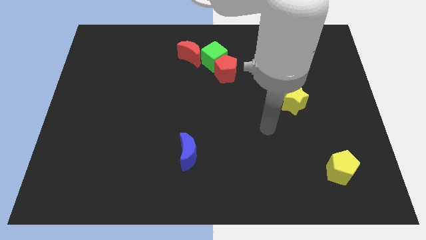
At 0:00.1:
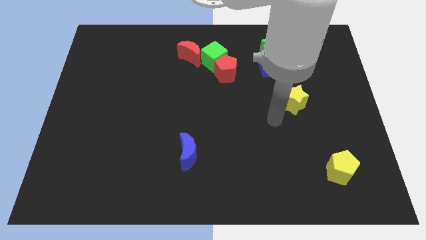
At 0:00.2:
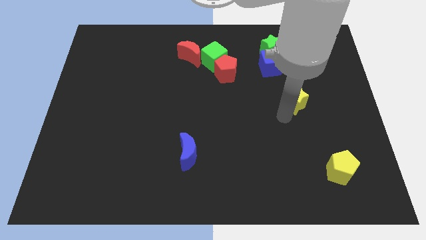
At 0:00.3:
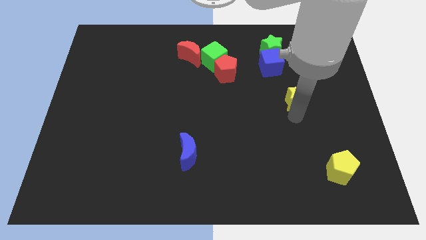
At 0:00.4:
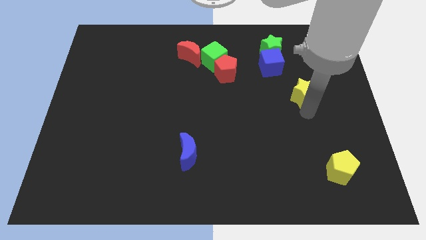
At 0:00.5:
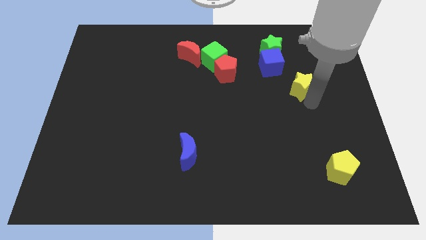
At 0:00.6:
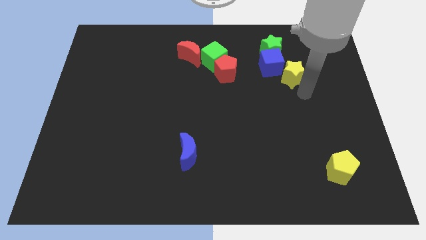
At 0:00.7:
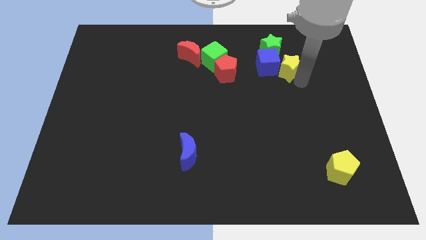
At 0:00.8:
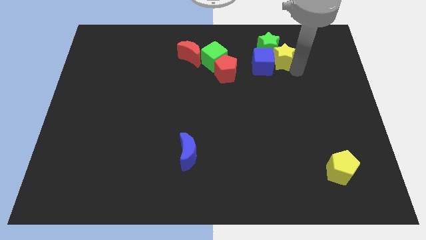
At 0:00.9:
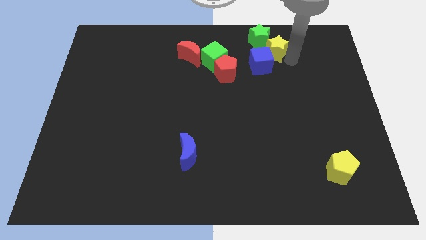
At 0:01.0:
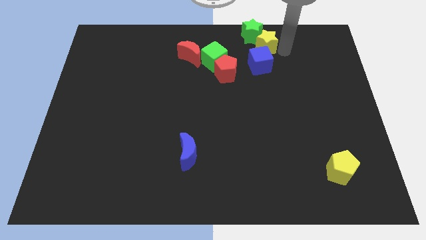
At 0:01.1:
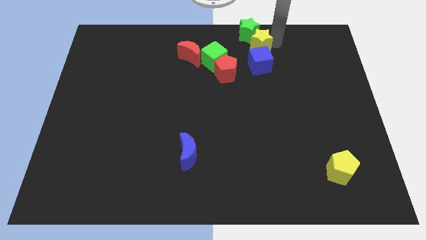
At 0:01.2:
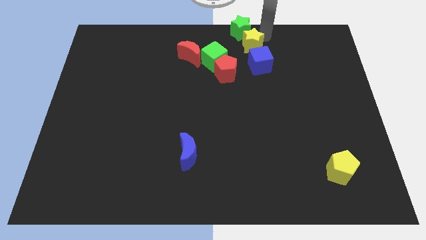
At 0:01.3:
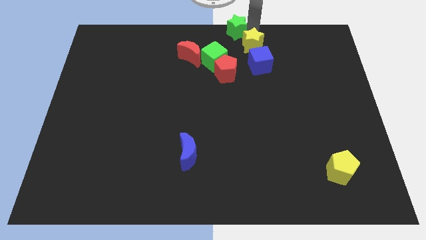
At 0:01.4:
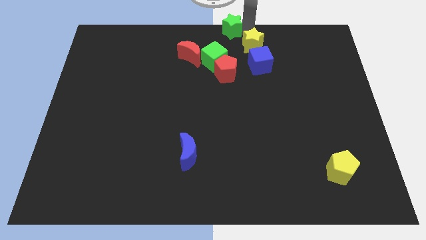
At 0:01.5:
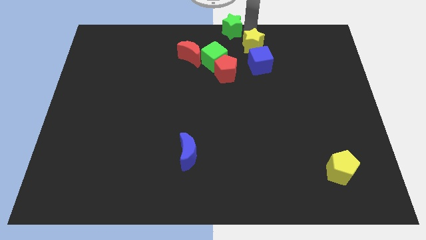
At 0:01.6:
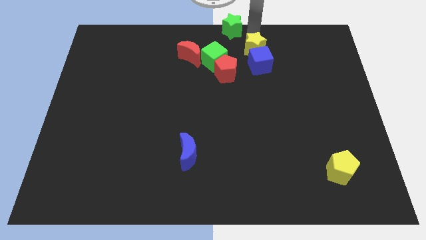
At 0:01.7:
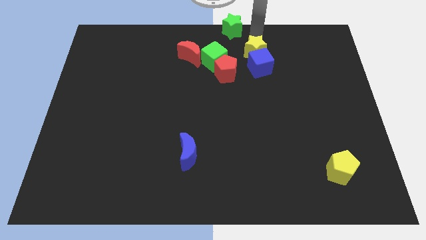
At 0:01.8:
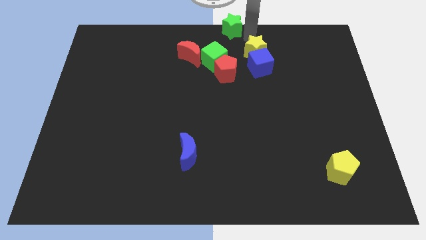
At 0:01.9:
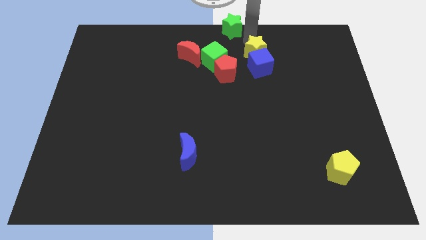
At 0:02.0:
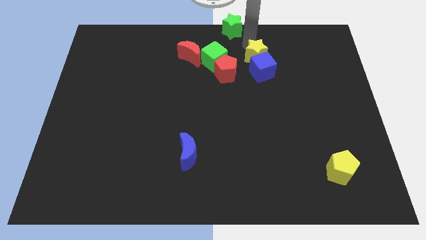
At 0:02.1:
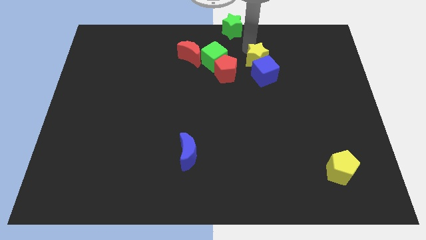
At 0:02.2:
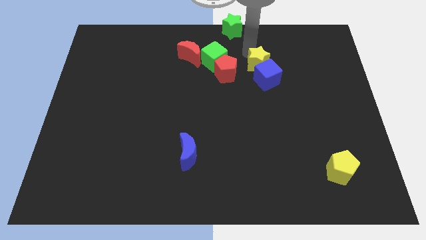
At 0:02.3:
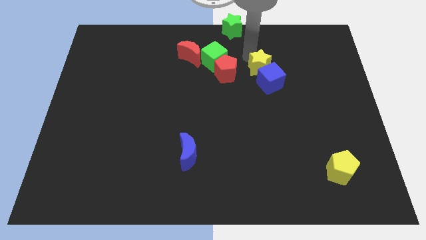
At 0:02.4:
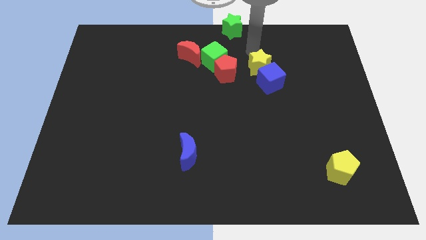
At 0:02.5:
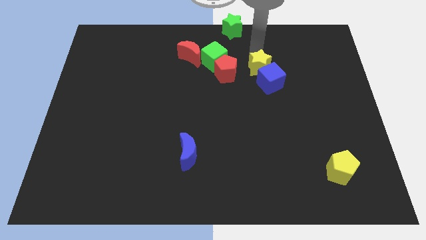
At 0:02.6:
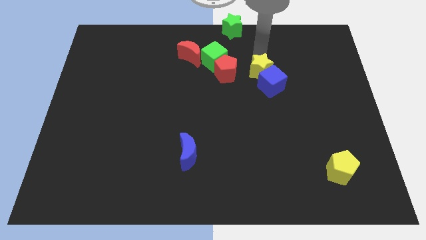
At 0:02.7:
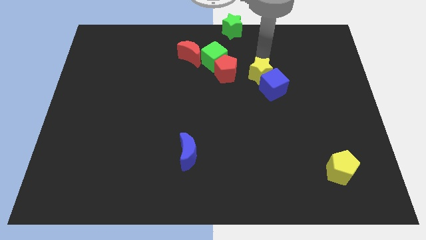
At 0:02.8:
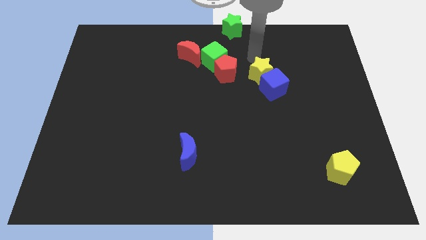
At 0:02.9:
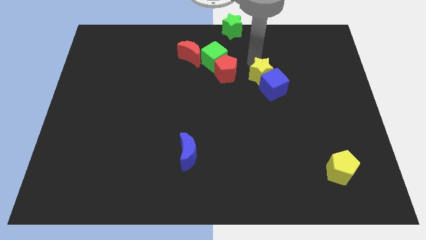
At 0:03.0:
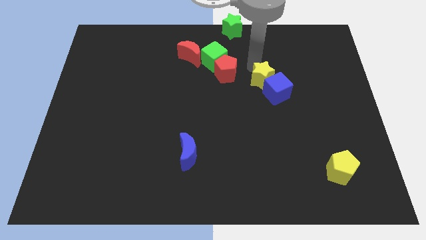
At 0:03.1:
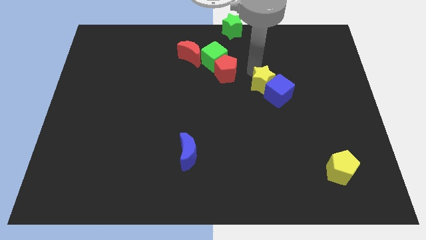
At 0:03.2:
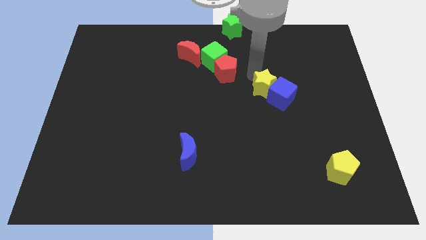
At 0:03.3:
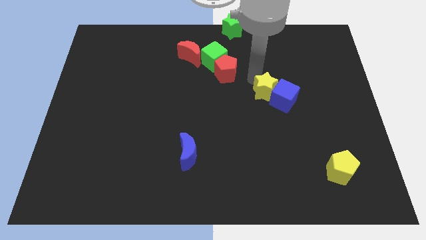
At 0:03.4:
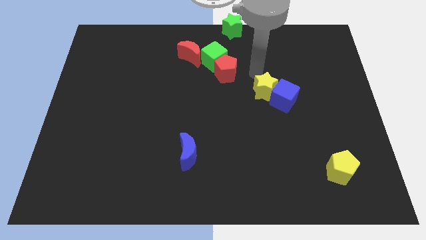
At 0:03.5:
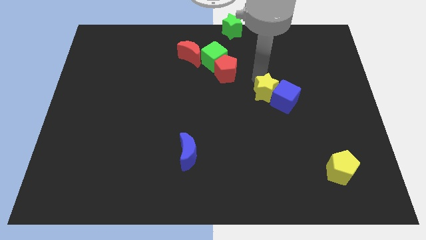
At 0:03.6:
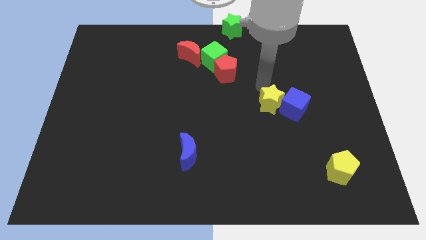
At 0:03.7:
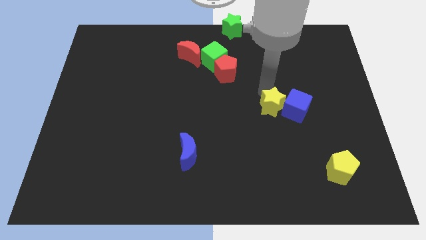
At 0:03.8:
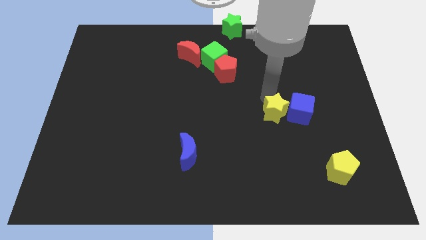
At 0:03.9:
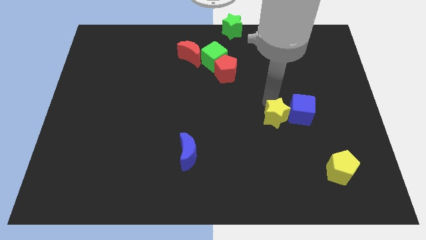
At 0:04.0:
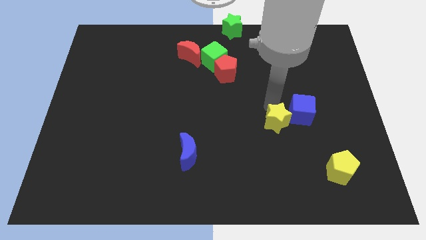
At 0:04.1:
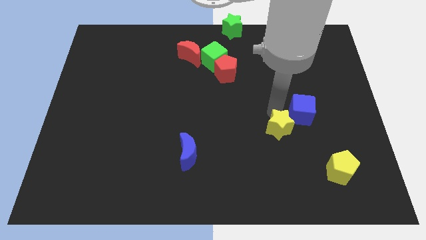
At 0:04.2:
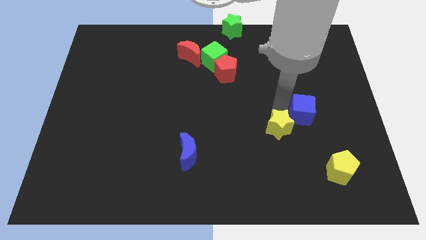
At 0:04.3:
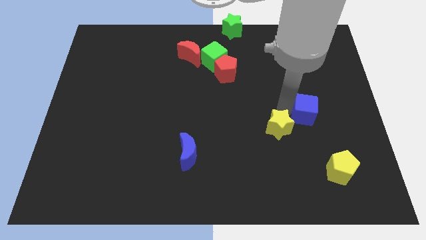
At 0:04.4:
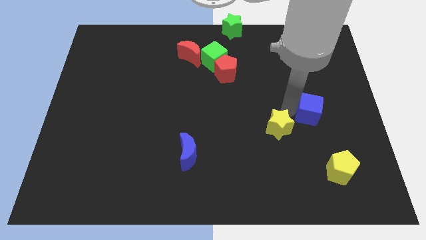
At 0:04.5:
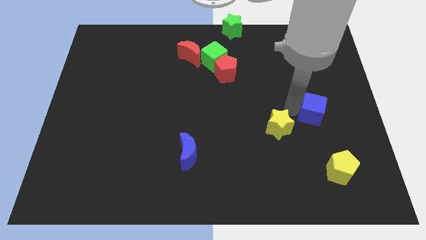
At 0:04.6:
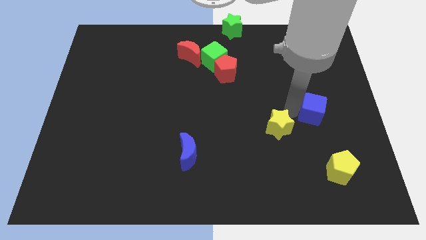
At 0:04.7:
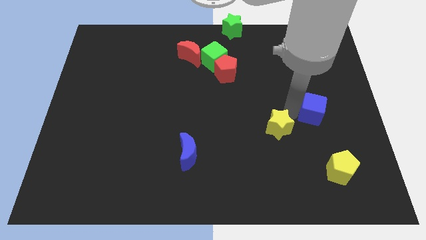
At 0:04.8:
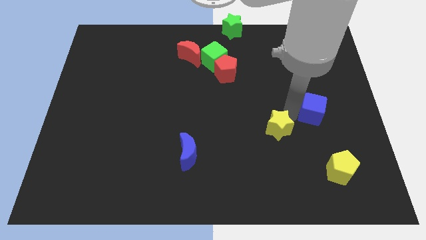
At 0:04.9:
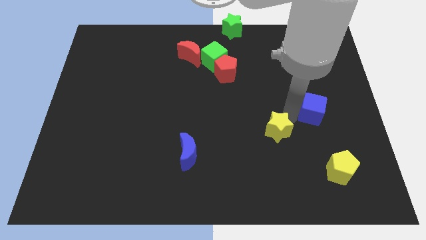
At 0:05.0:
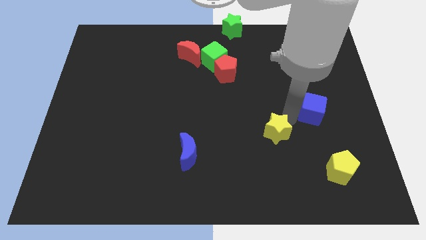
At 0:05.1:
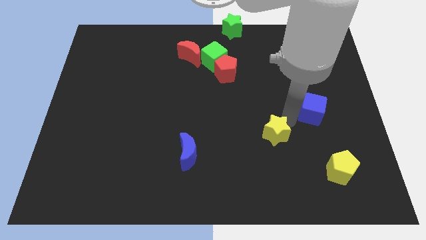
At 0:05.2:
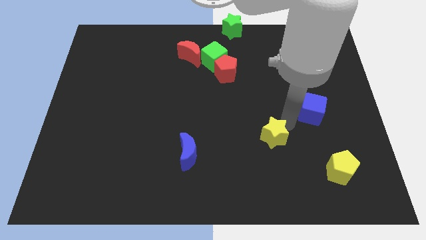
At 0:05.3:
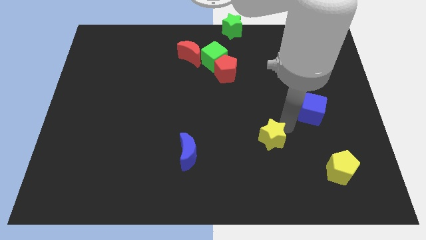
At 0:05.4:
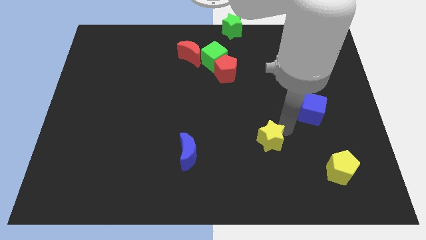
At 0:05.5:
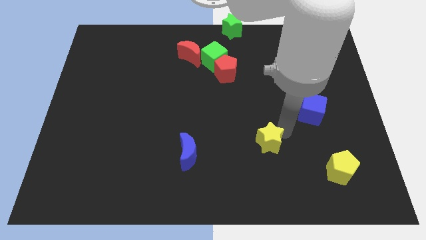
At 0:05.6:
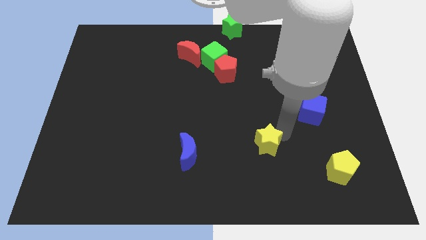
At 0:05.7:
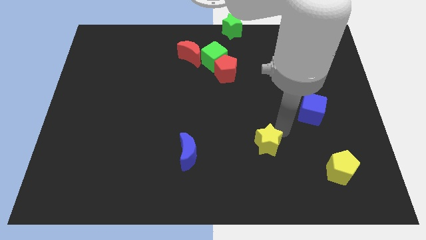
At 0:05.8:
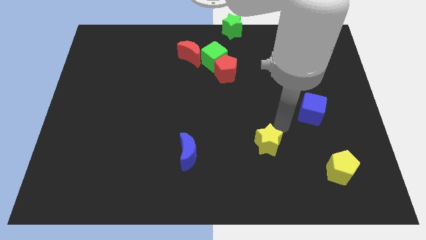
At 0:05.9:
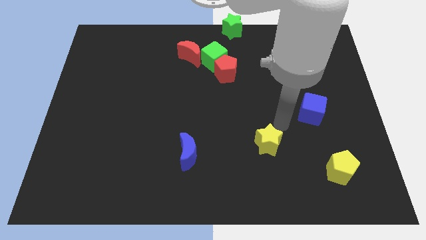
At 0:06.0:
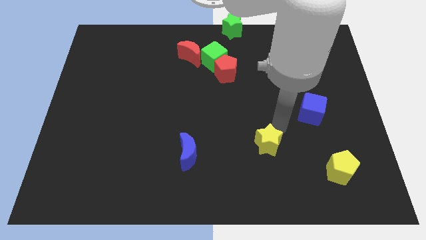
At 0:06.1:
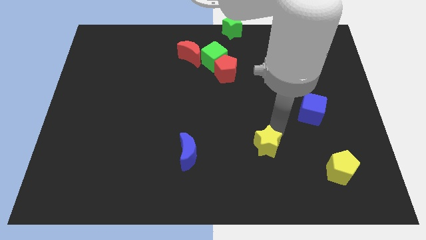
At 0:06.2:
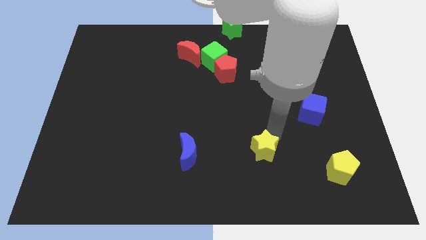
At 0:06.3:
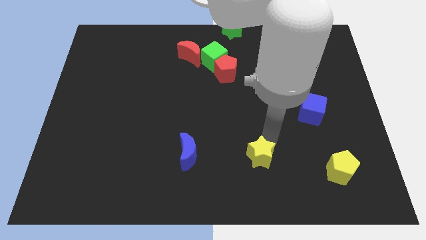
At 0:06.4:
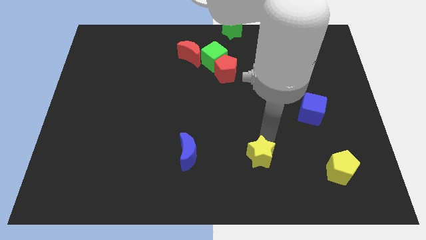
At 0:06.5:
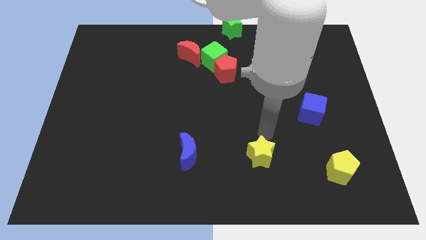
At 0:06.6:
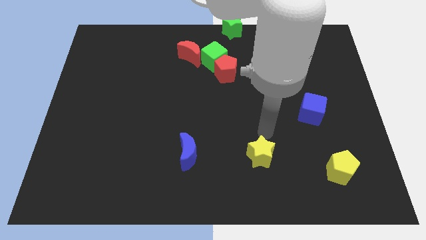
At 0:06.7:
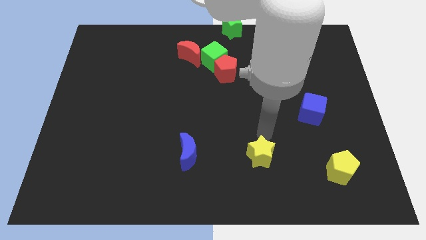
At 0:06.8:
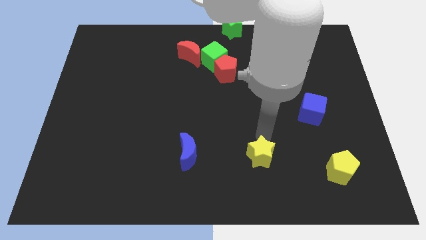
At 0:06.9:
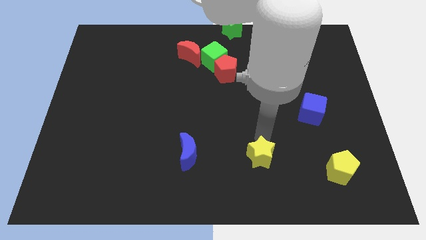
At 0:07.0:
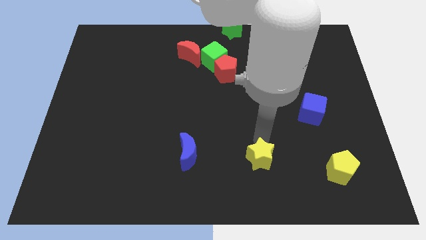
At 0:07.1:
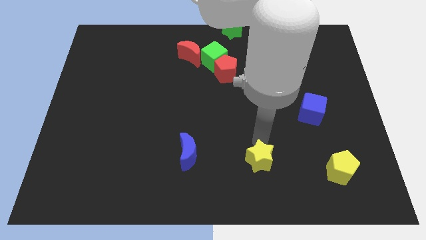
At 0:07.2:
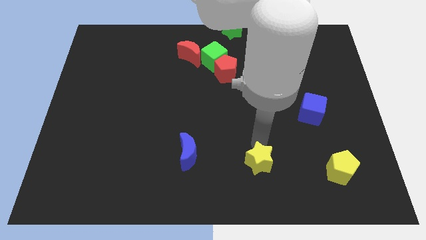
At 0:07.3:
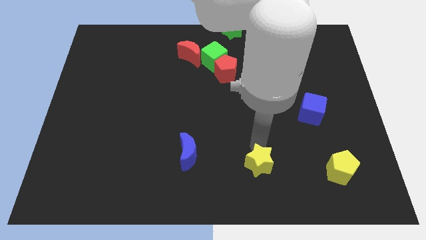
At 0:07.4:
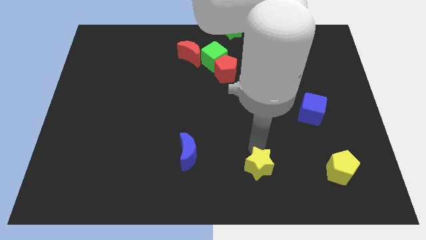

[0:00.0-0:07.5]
slide the yellow star to the bottom side
